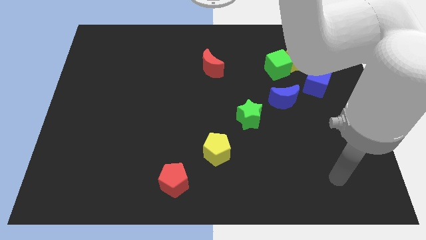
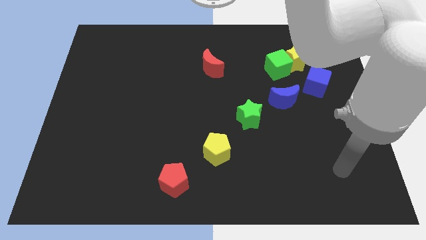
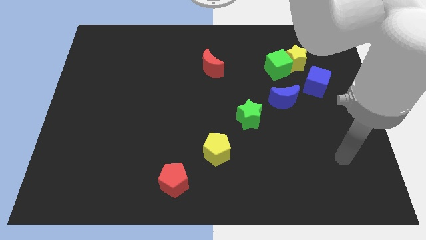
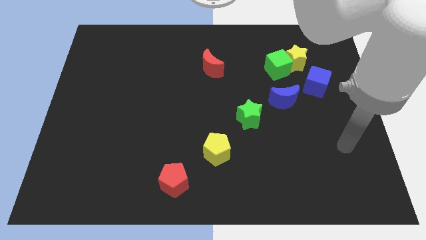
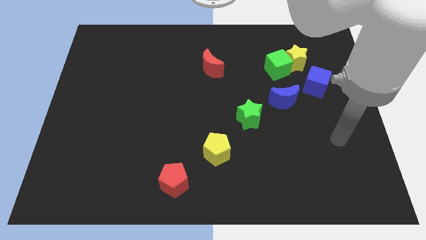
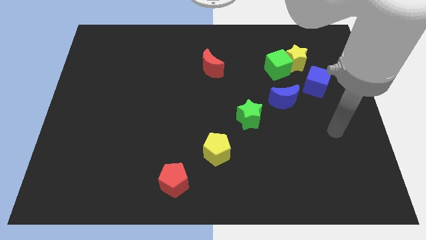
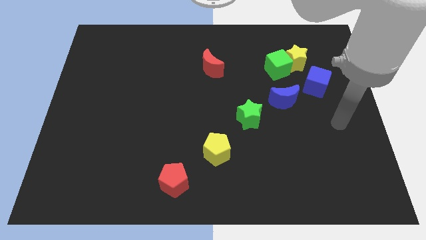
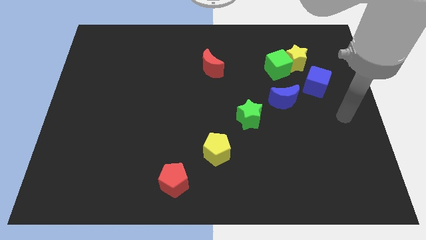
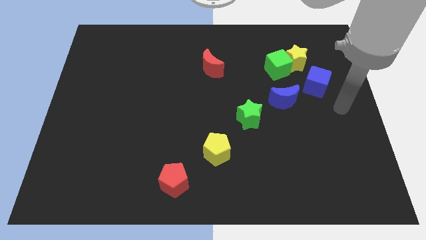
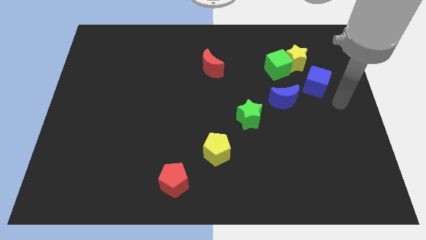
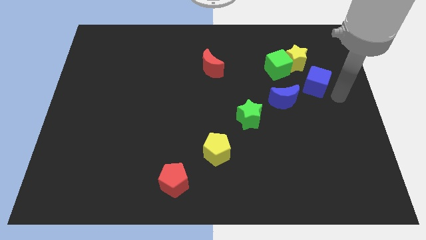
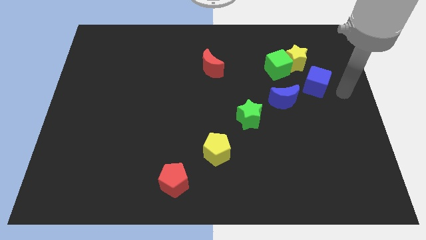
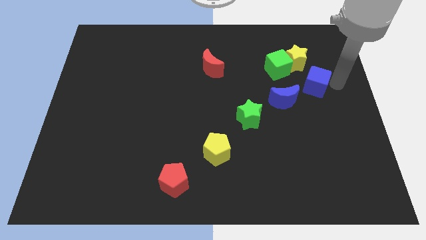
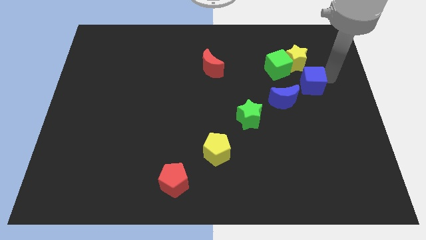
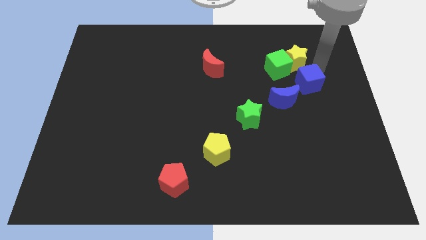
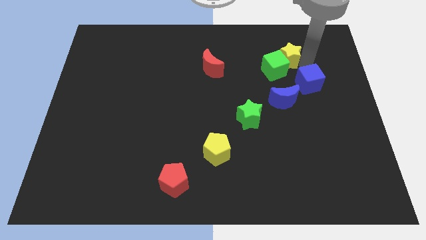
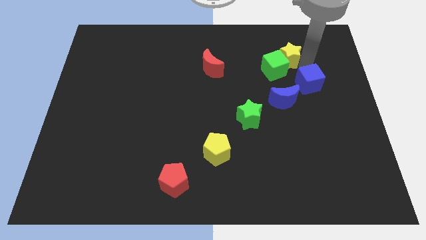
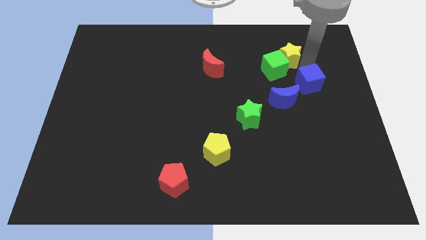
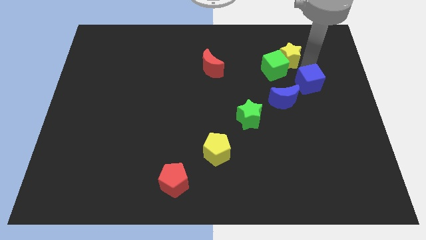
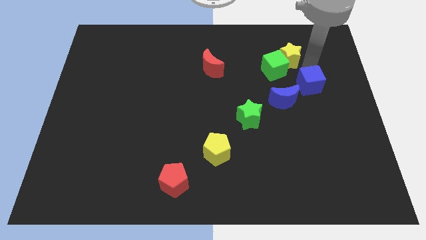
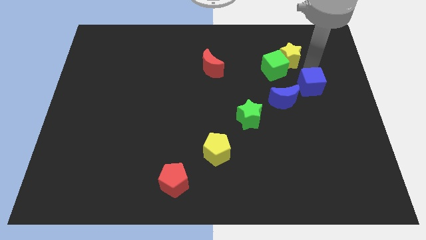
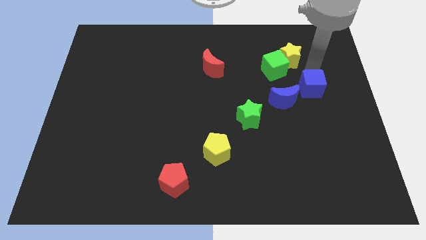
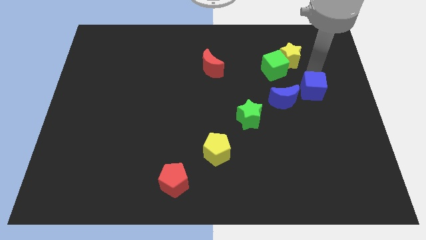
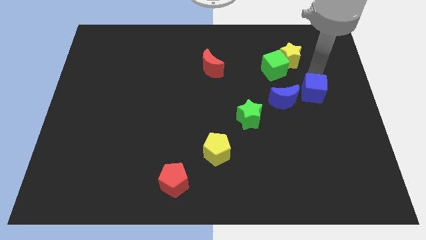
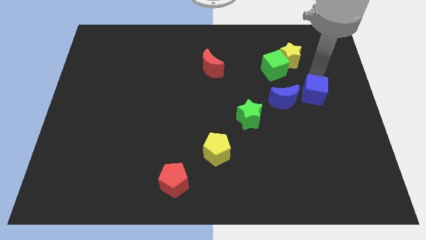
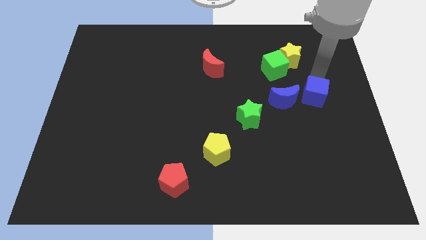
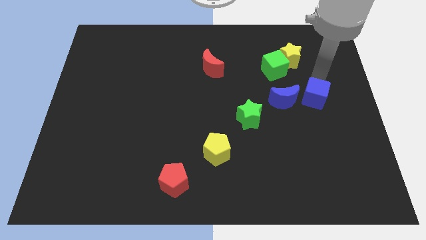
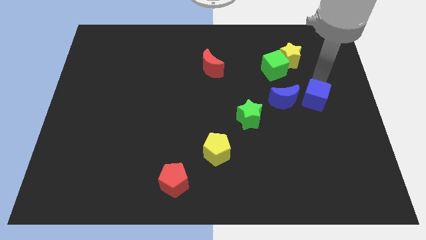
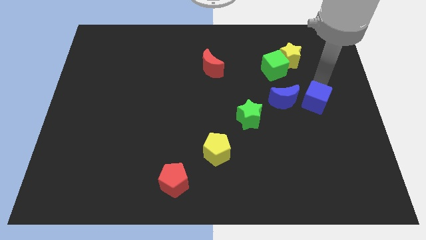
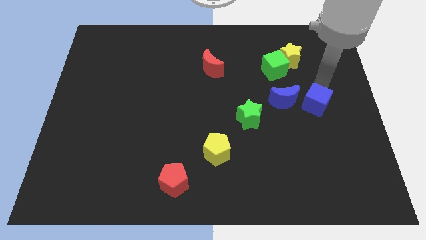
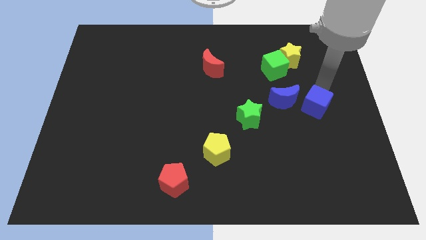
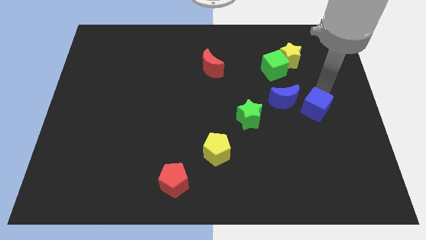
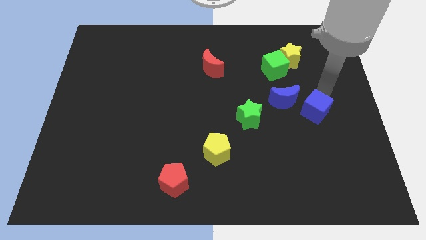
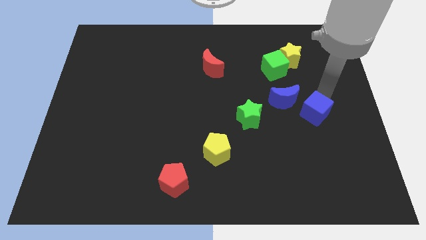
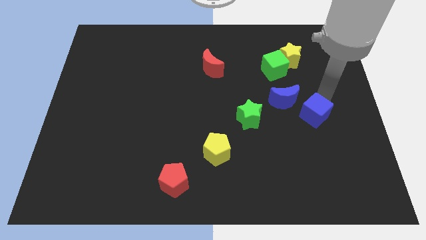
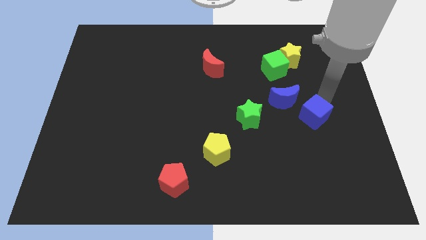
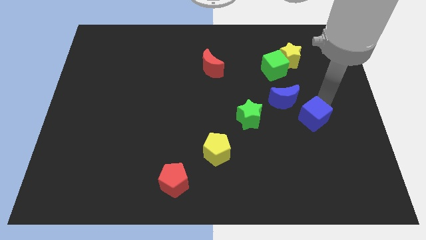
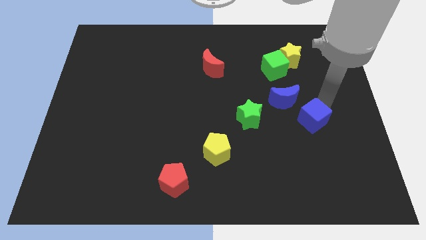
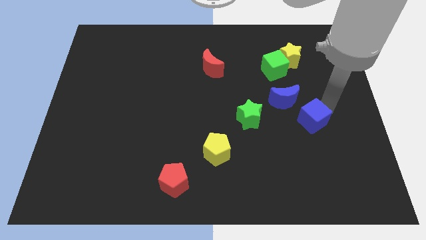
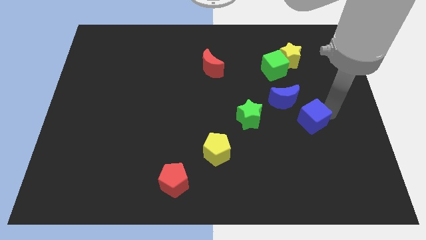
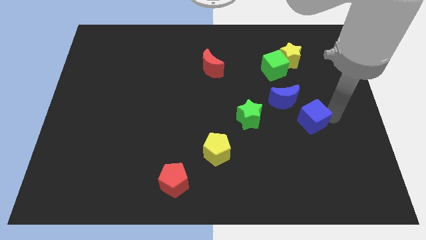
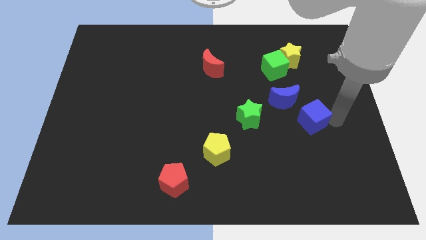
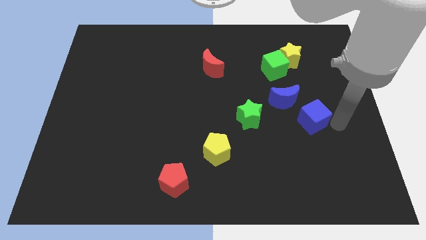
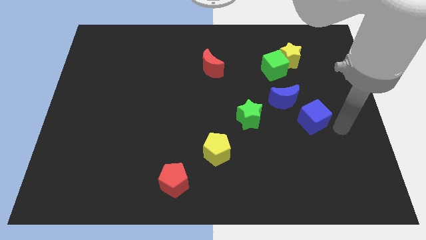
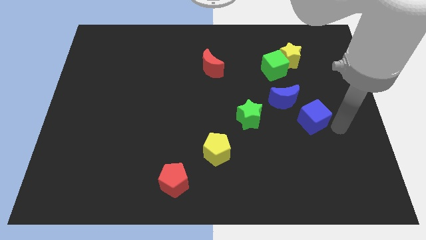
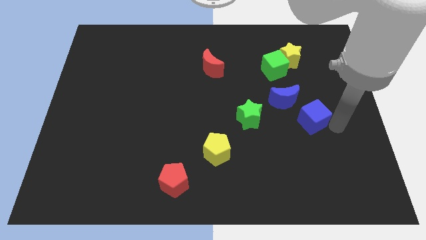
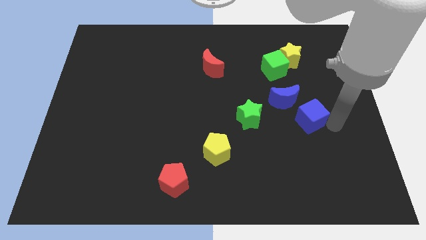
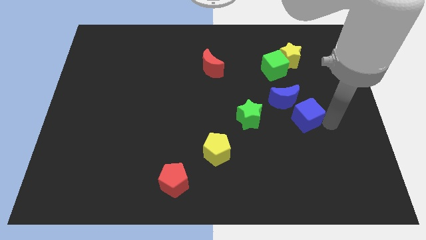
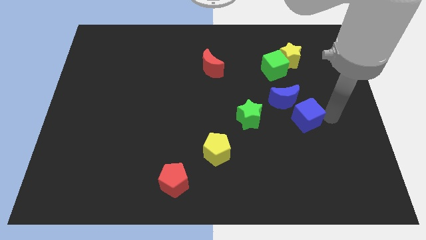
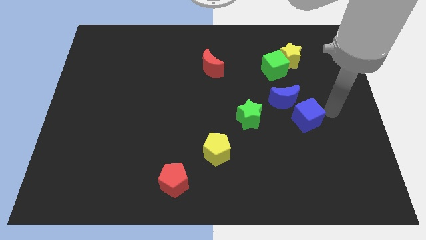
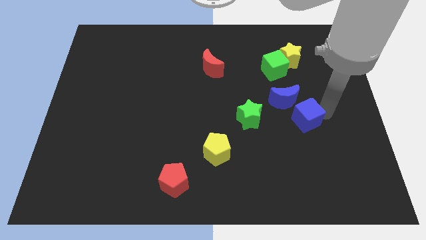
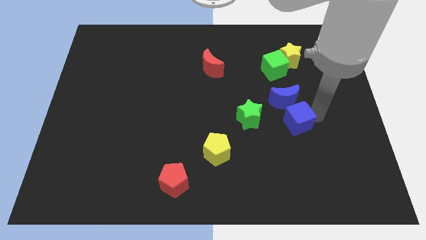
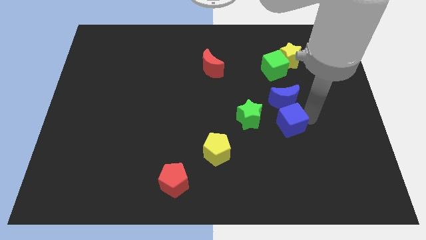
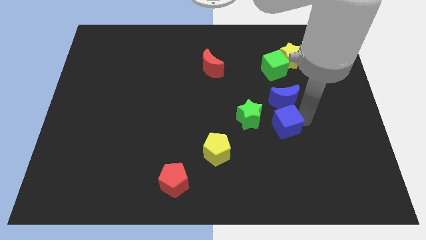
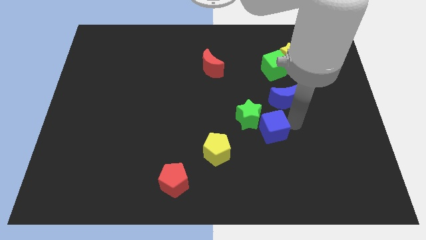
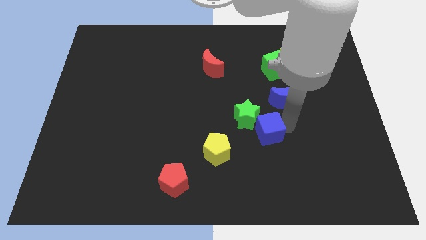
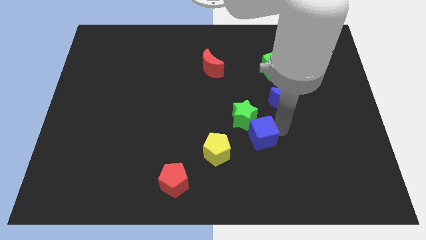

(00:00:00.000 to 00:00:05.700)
push the blue cube to the top right side of the yellow pentagon

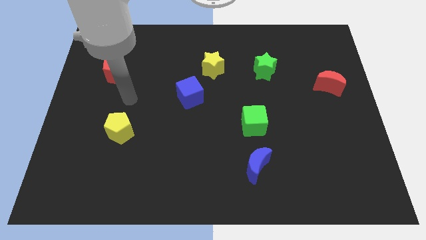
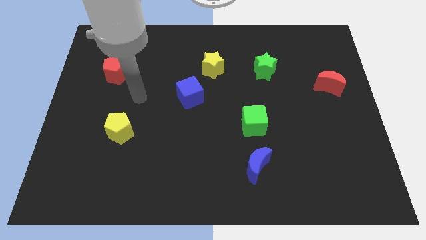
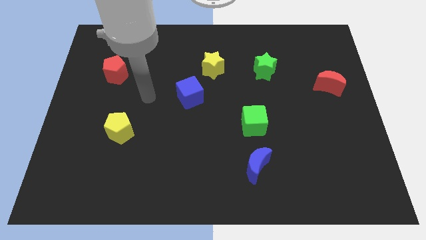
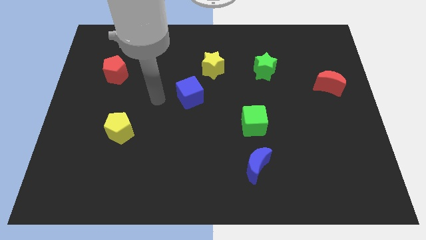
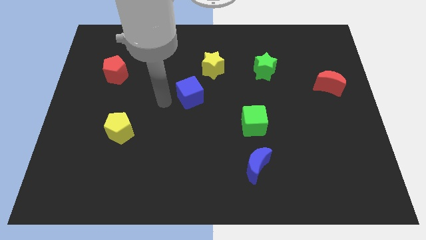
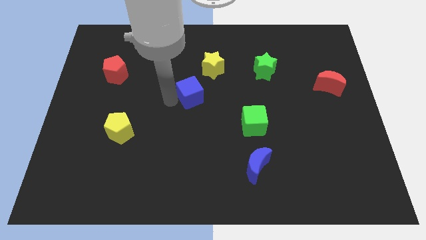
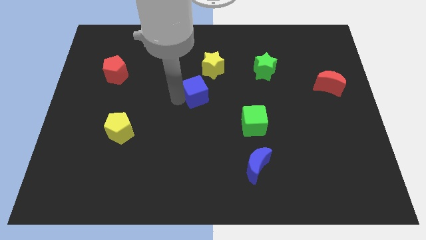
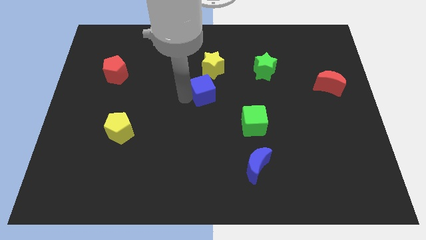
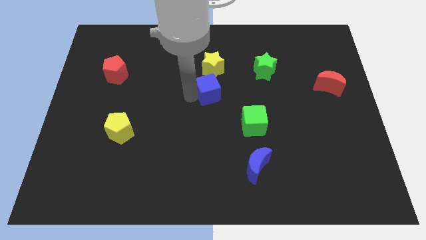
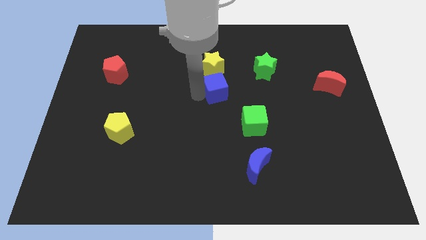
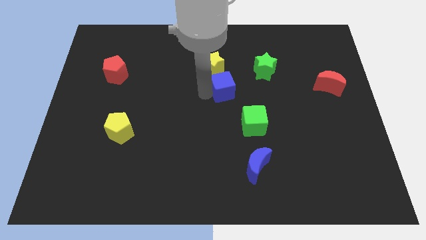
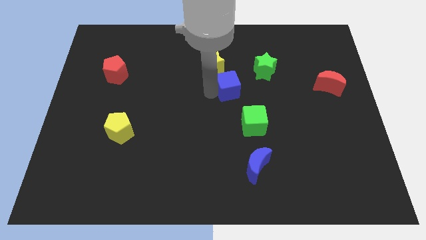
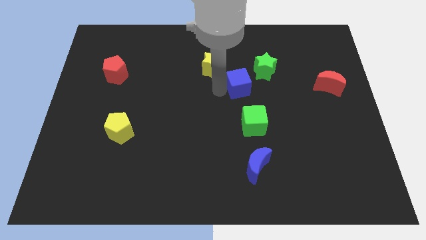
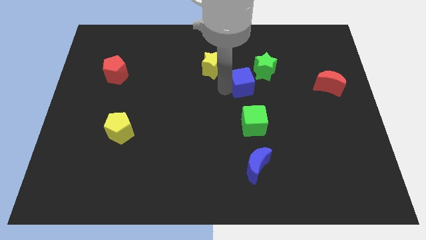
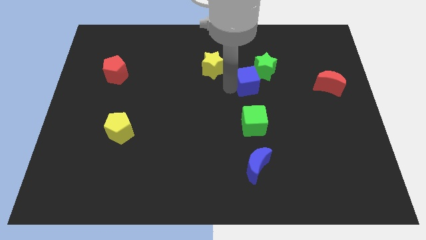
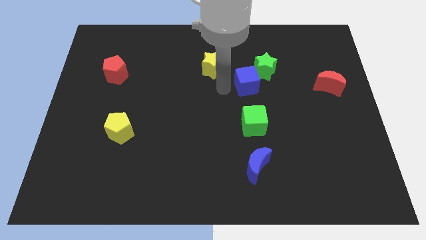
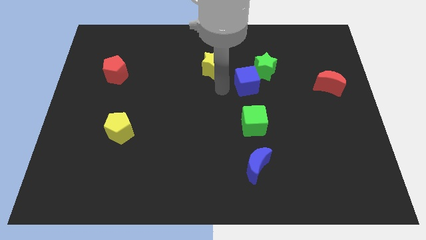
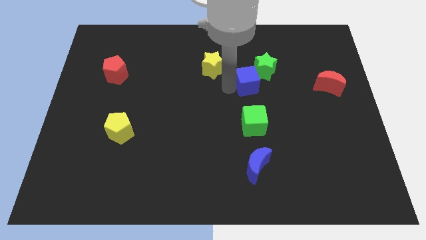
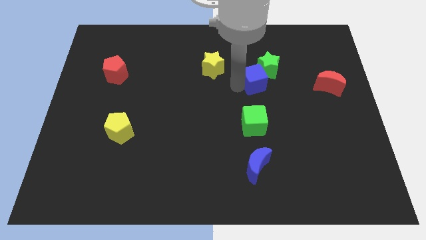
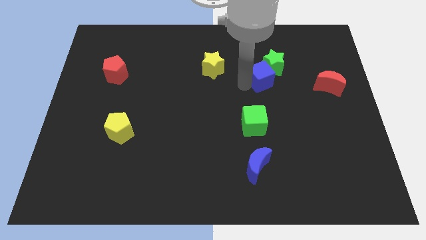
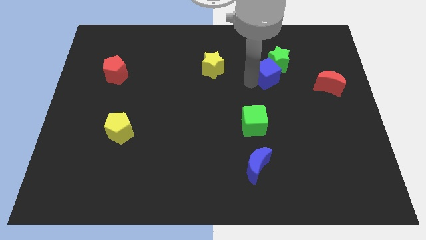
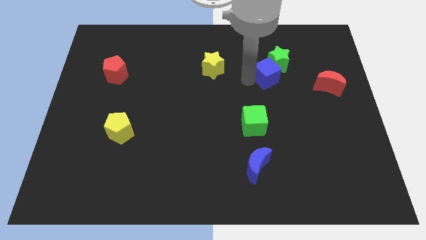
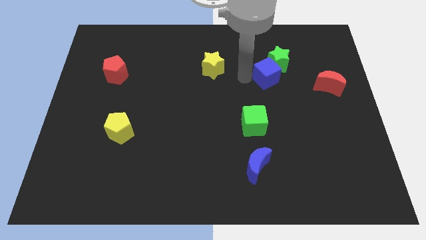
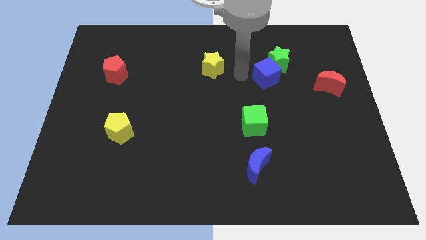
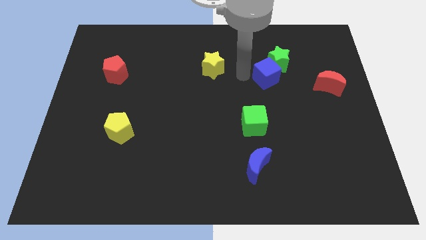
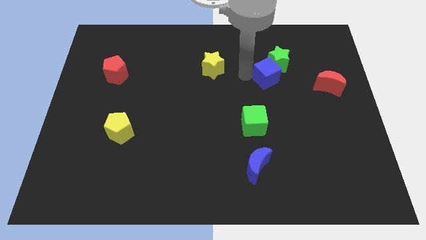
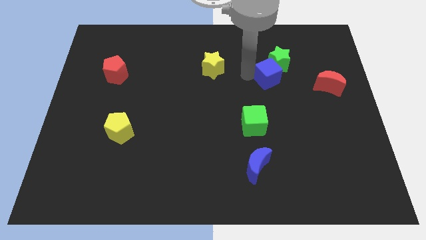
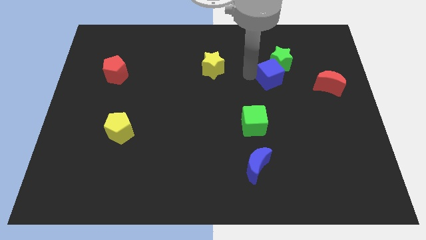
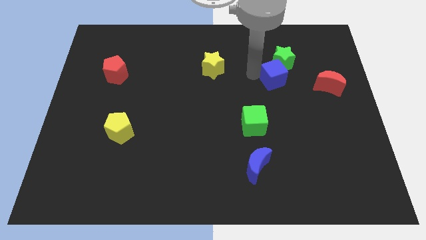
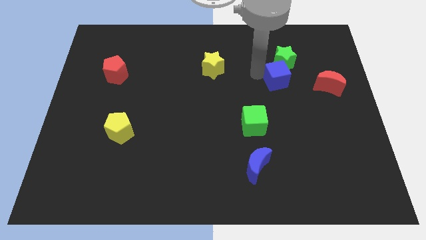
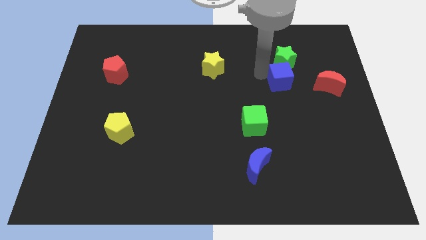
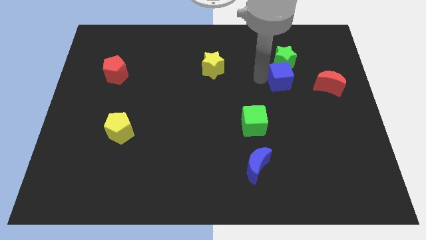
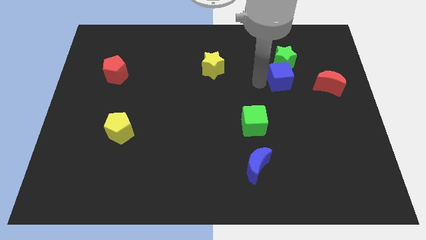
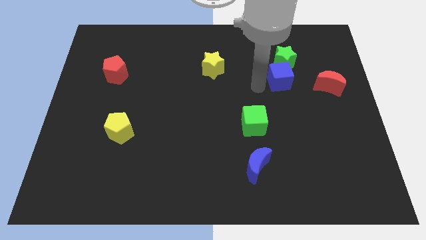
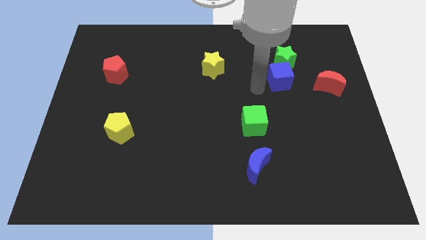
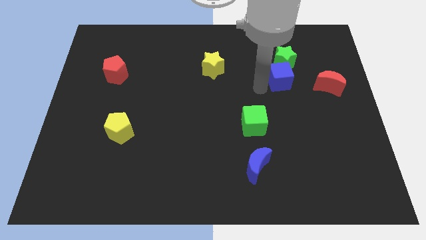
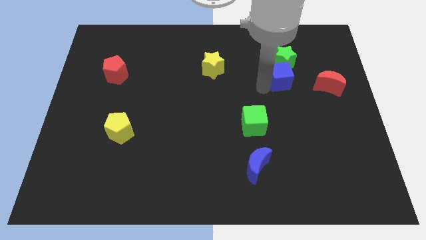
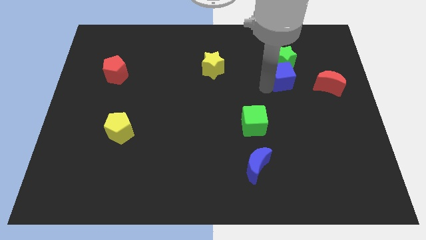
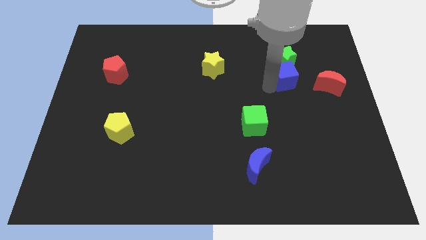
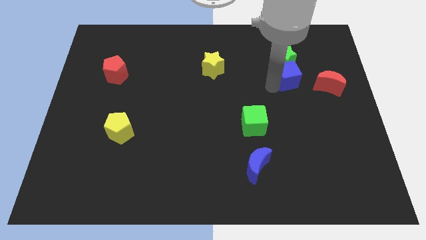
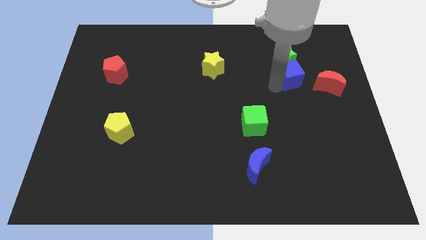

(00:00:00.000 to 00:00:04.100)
push the blue cube to the top left of the red moon
